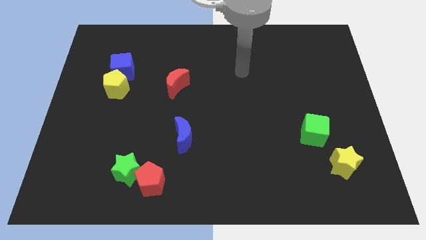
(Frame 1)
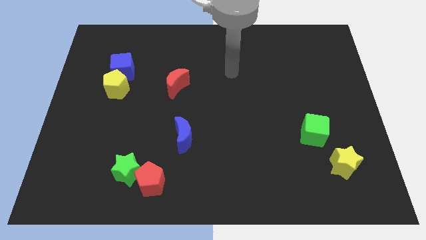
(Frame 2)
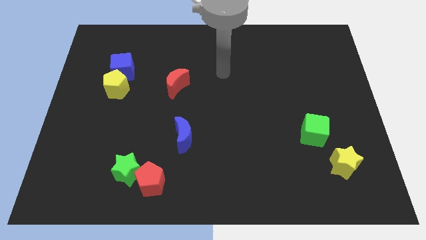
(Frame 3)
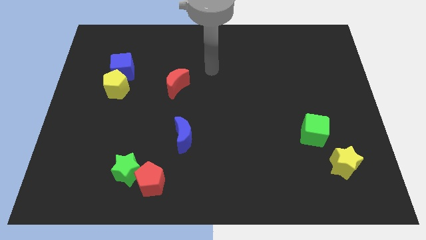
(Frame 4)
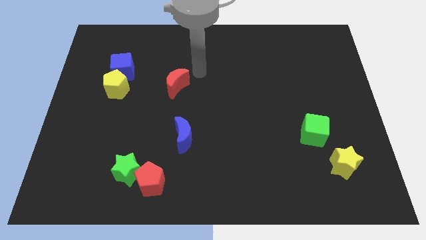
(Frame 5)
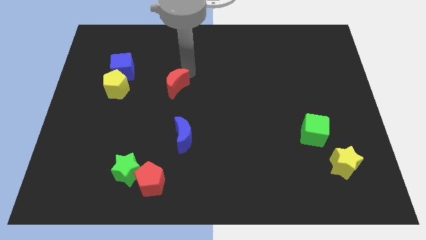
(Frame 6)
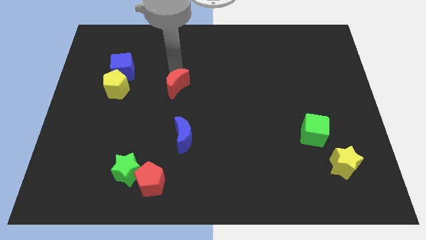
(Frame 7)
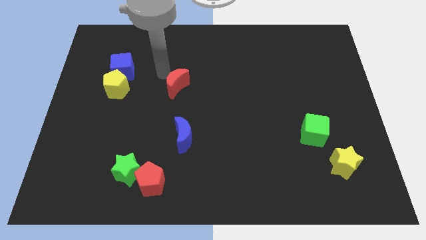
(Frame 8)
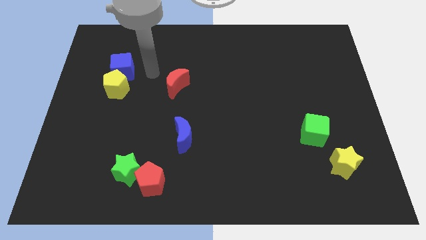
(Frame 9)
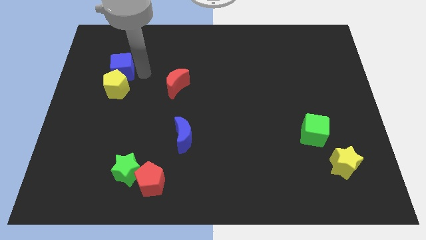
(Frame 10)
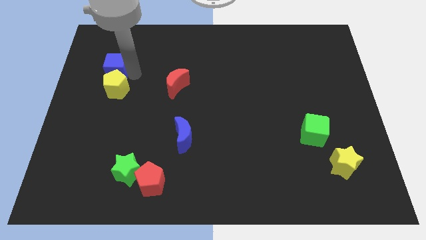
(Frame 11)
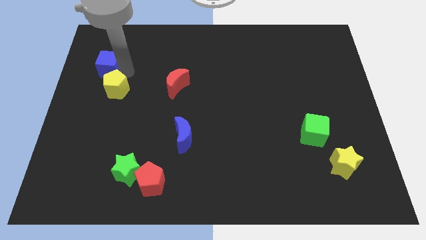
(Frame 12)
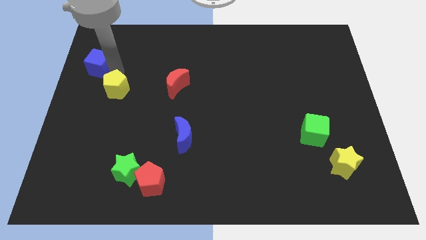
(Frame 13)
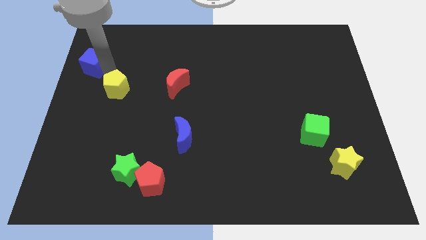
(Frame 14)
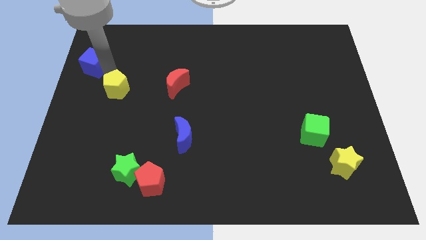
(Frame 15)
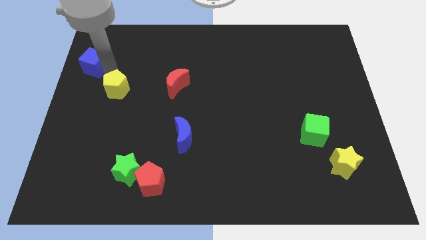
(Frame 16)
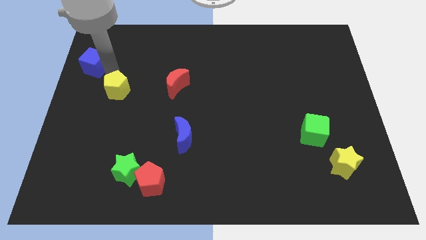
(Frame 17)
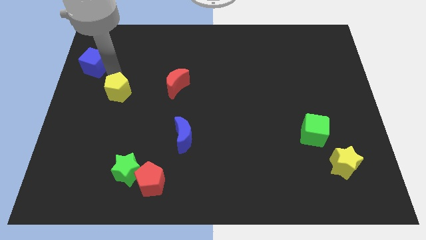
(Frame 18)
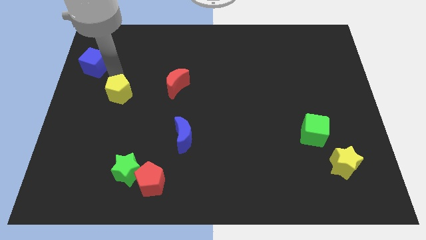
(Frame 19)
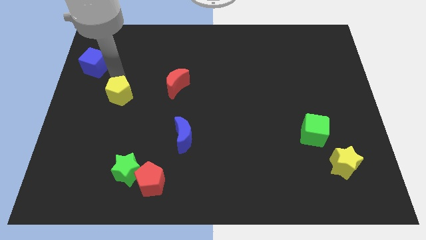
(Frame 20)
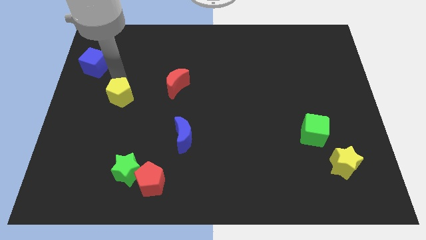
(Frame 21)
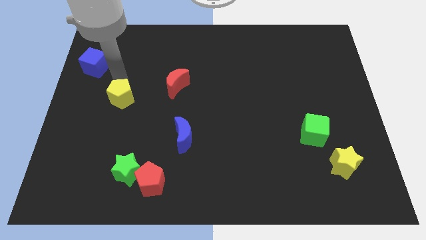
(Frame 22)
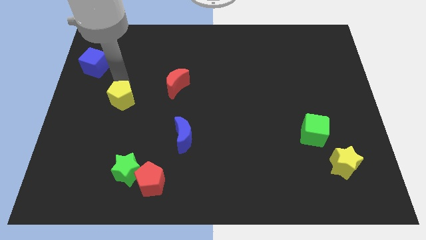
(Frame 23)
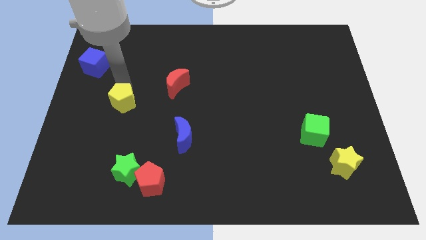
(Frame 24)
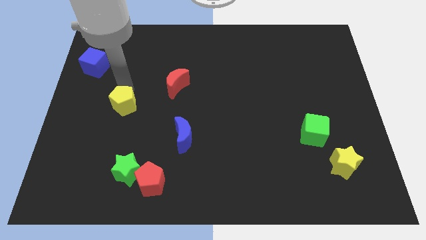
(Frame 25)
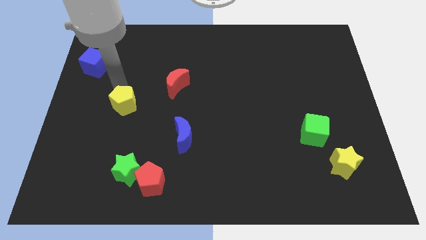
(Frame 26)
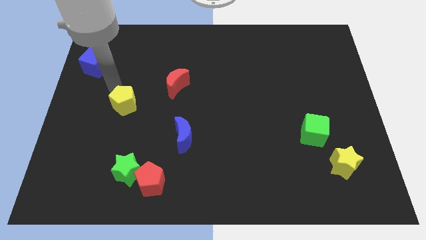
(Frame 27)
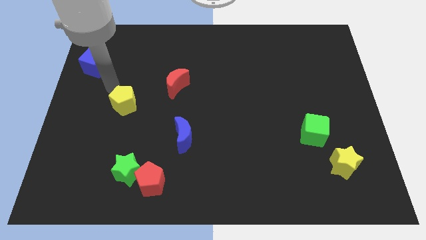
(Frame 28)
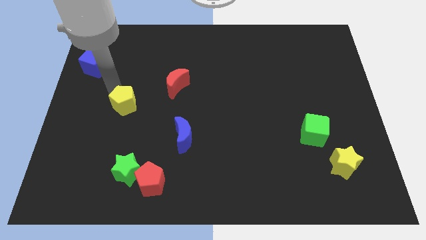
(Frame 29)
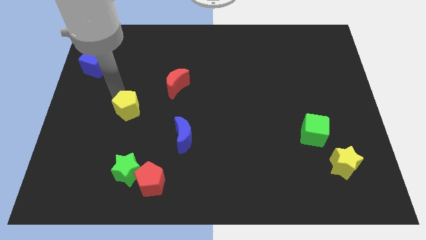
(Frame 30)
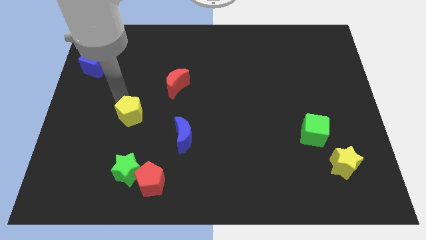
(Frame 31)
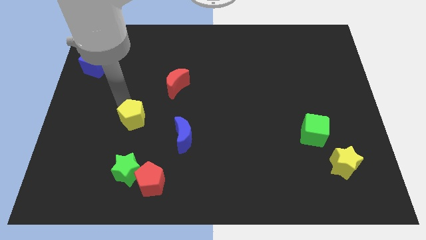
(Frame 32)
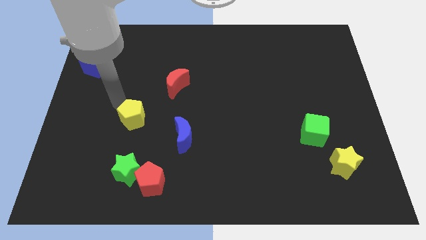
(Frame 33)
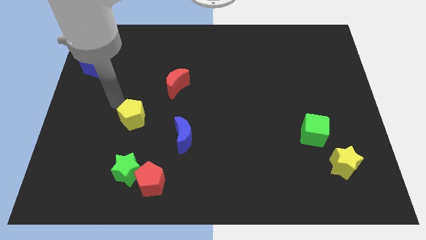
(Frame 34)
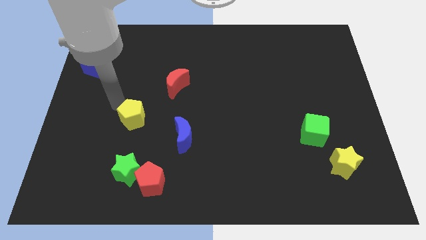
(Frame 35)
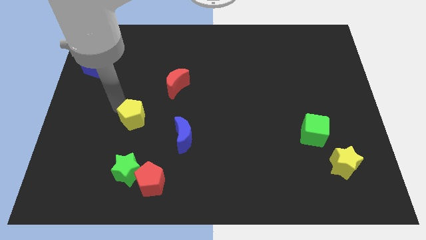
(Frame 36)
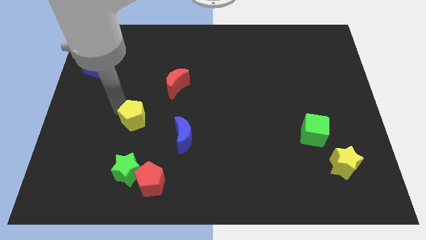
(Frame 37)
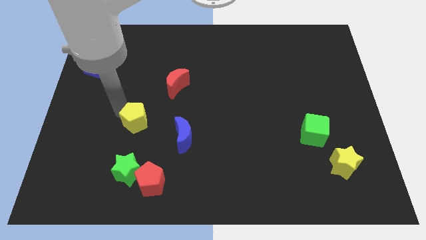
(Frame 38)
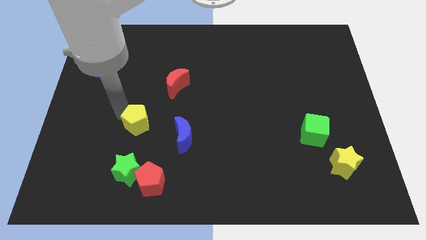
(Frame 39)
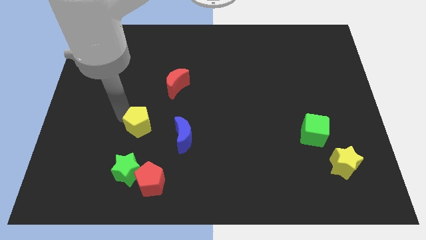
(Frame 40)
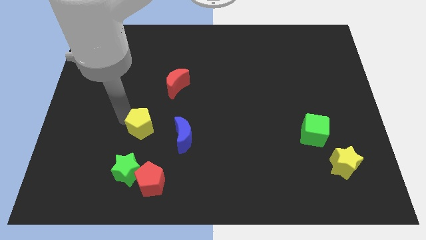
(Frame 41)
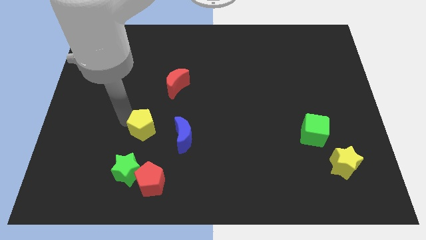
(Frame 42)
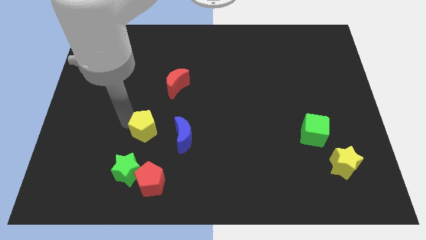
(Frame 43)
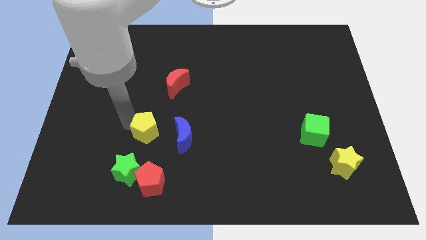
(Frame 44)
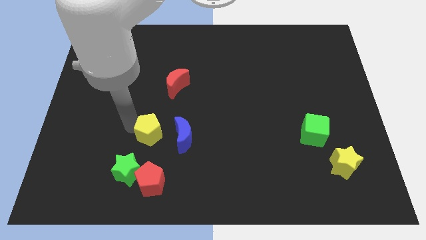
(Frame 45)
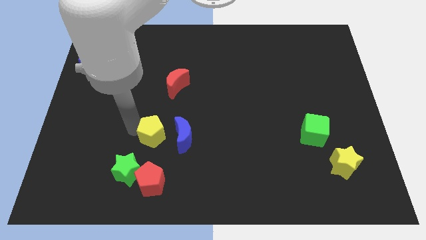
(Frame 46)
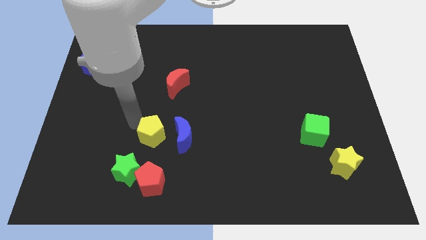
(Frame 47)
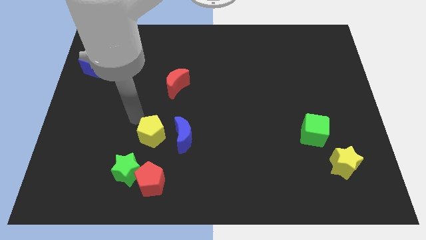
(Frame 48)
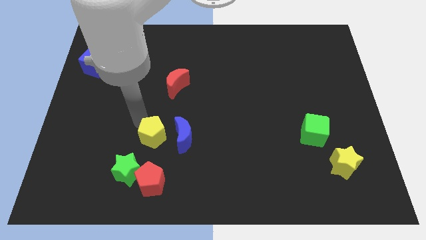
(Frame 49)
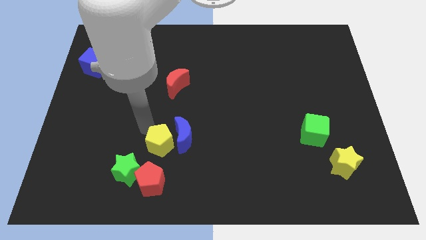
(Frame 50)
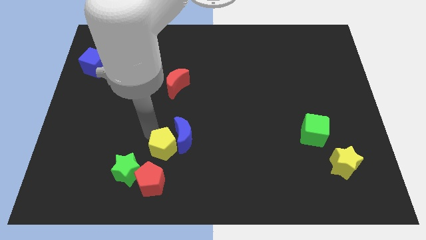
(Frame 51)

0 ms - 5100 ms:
move the yellow pentagon to the top right side of the red pentagon

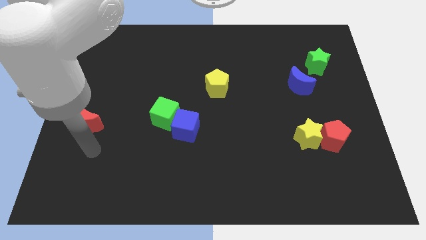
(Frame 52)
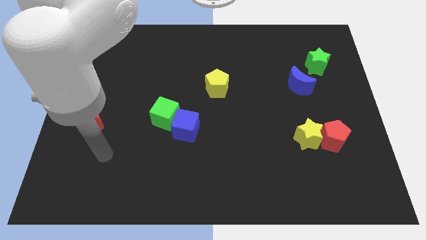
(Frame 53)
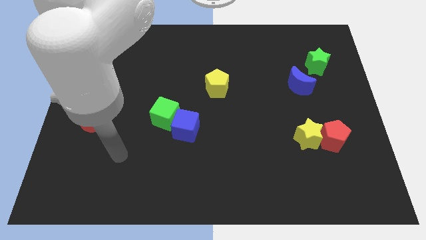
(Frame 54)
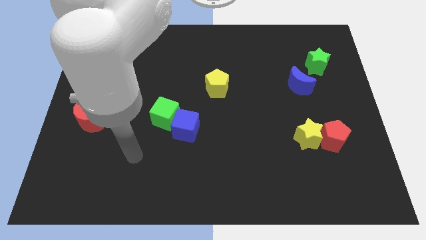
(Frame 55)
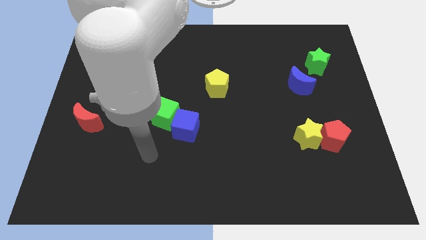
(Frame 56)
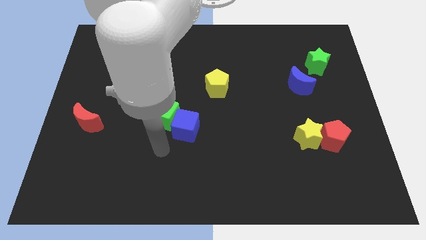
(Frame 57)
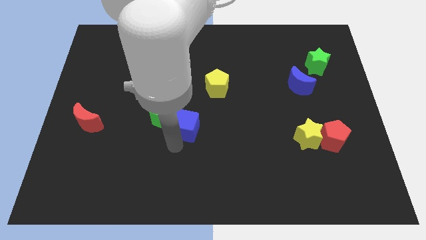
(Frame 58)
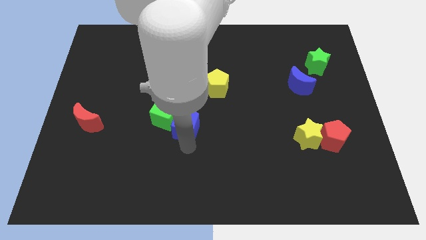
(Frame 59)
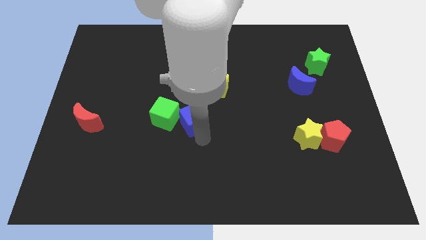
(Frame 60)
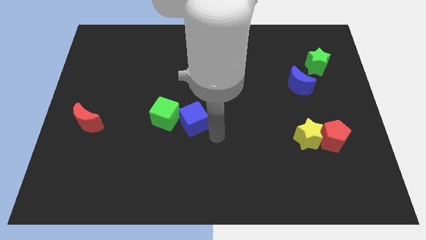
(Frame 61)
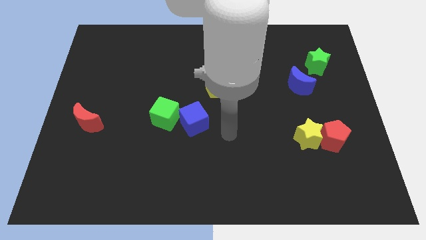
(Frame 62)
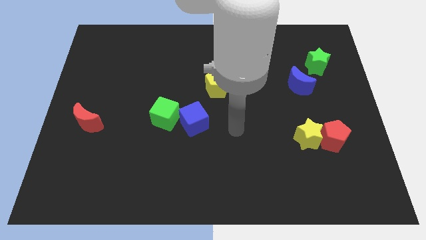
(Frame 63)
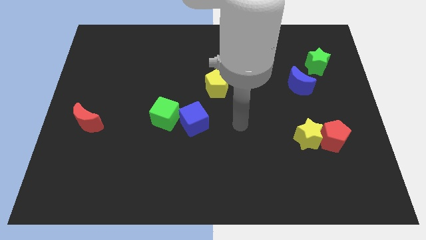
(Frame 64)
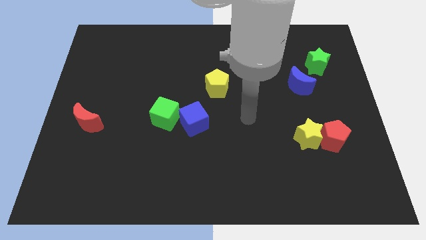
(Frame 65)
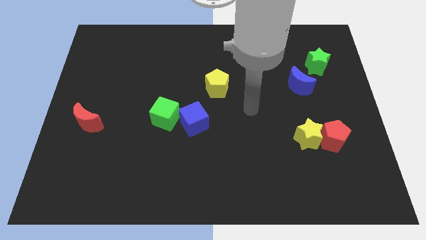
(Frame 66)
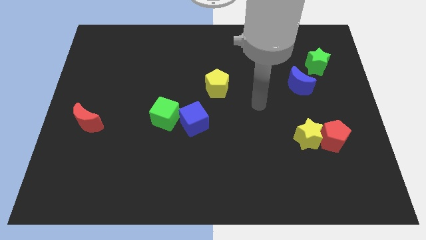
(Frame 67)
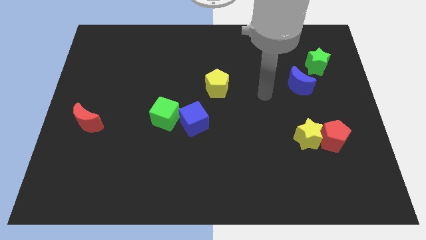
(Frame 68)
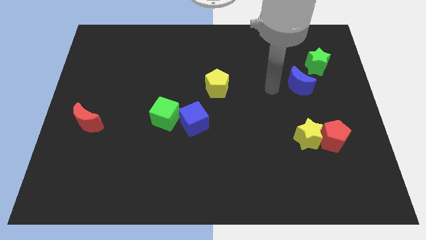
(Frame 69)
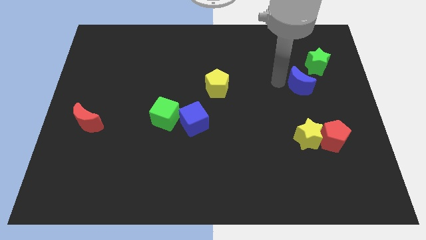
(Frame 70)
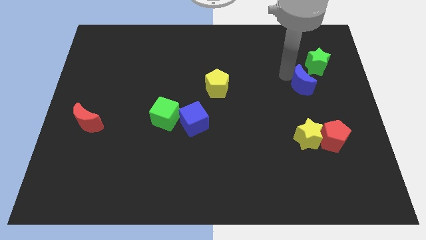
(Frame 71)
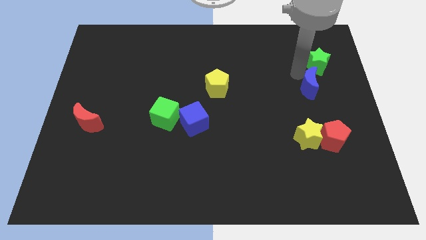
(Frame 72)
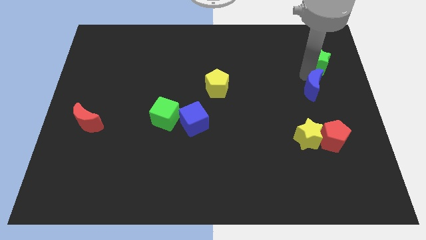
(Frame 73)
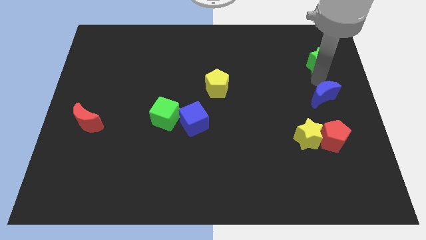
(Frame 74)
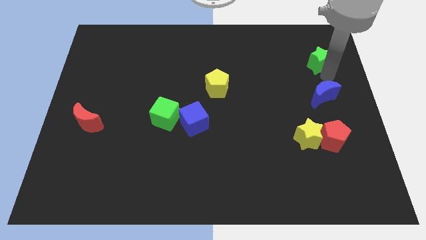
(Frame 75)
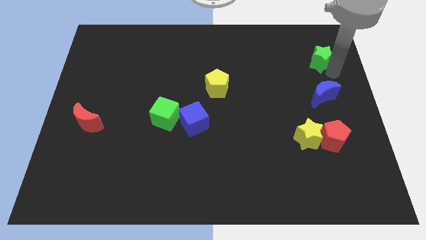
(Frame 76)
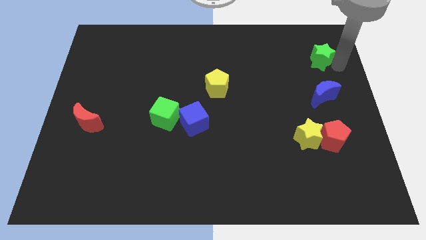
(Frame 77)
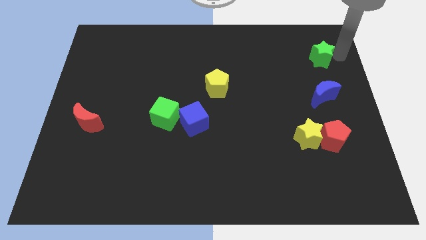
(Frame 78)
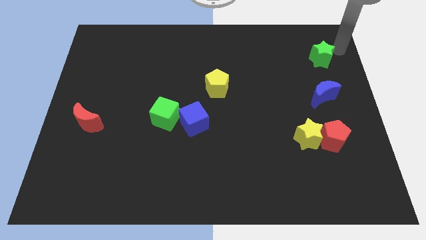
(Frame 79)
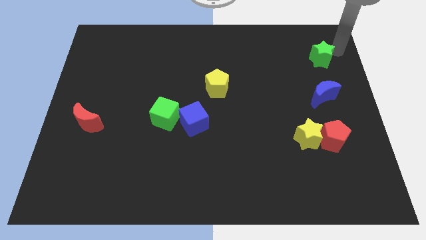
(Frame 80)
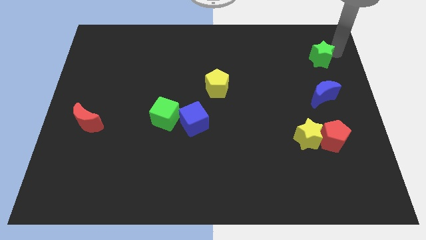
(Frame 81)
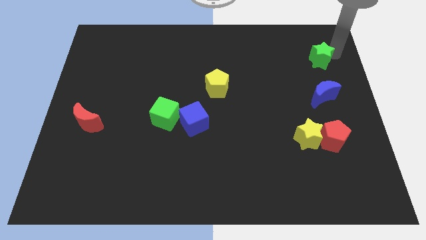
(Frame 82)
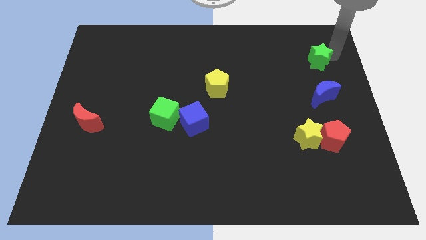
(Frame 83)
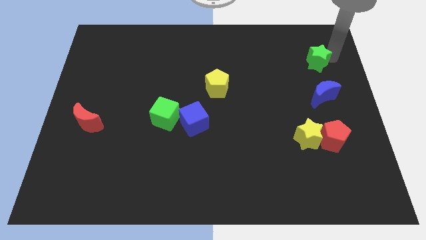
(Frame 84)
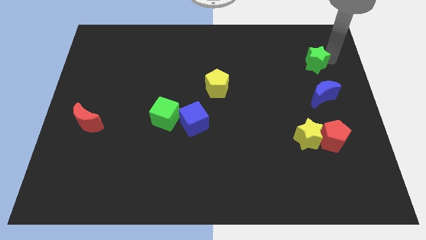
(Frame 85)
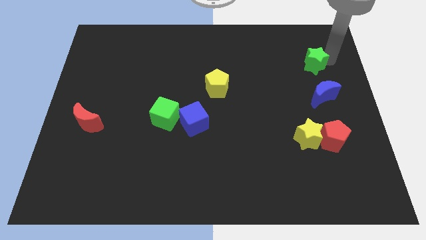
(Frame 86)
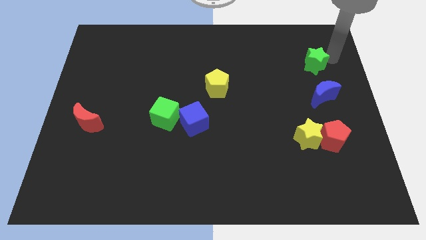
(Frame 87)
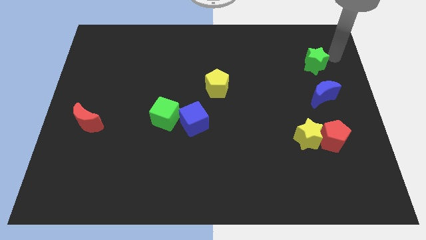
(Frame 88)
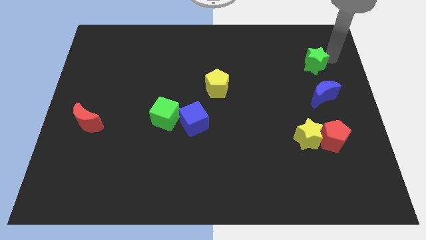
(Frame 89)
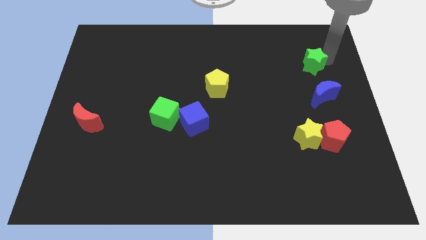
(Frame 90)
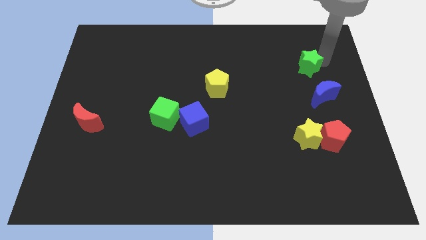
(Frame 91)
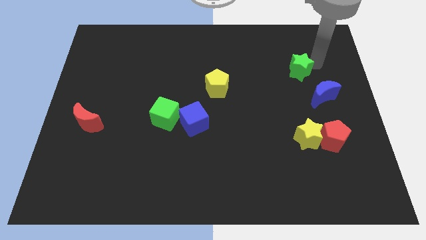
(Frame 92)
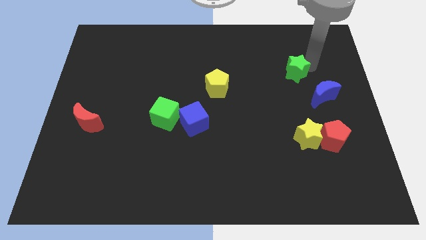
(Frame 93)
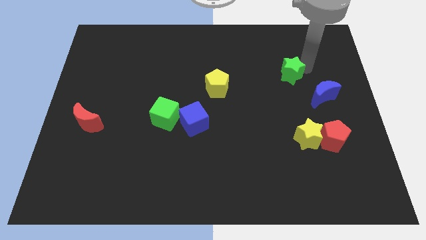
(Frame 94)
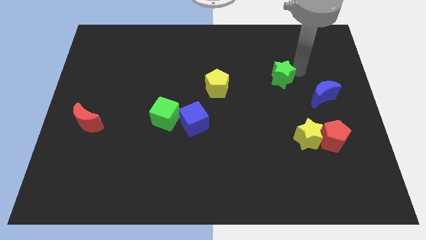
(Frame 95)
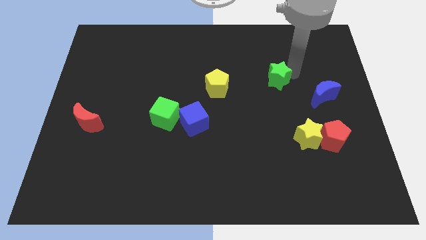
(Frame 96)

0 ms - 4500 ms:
push the green star to the right side of the yellow pentagon
